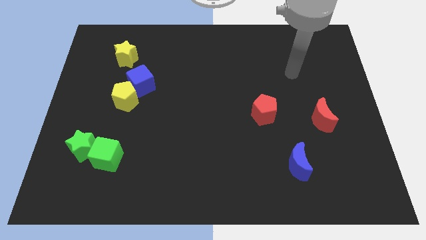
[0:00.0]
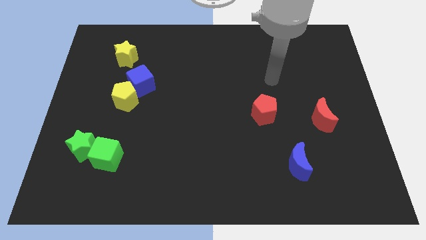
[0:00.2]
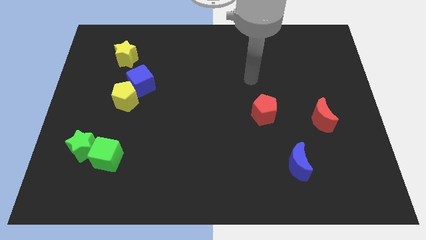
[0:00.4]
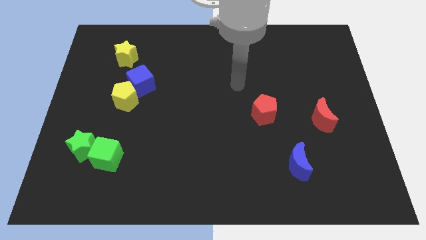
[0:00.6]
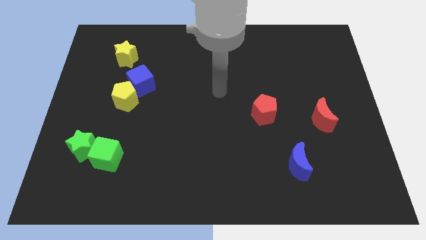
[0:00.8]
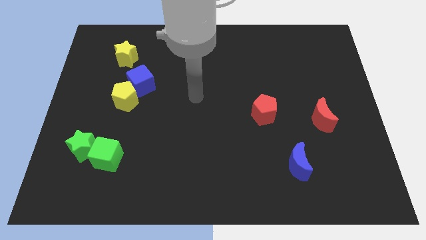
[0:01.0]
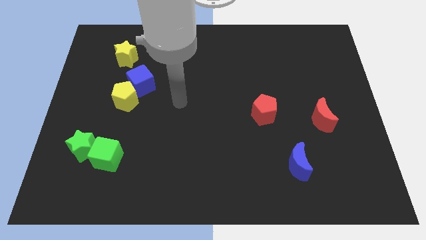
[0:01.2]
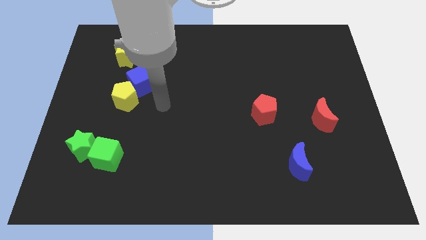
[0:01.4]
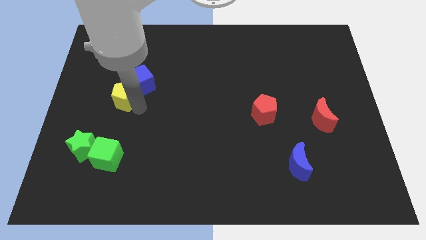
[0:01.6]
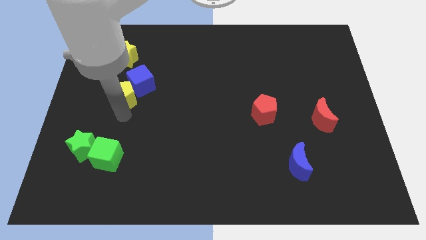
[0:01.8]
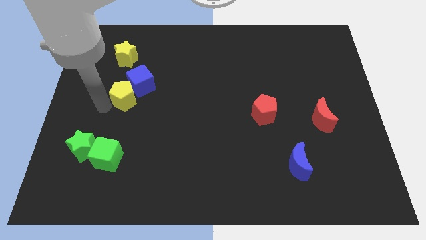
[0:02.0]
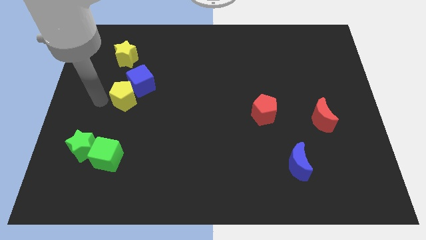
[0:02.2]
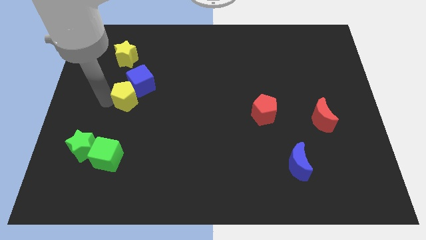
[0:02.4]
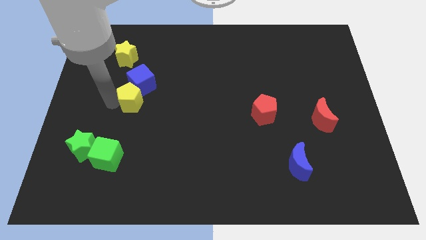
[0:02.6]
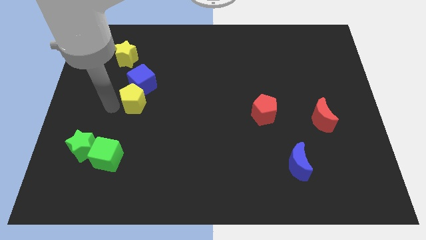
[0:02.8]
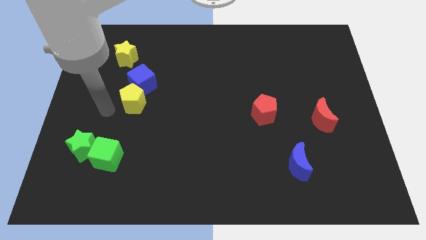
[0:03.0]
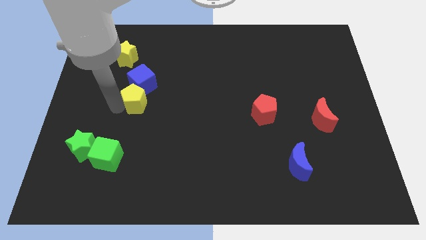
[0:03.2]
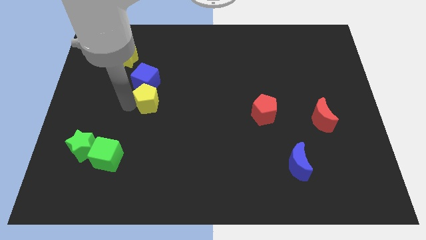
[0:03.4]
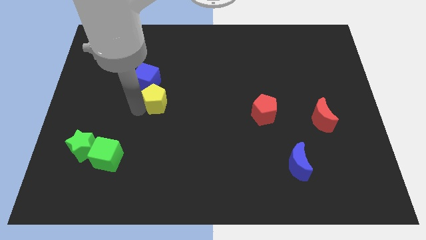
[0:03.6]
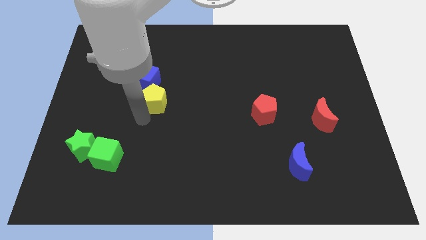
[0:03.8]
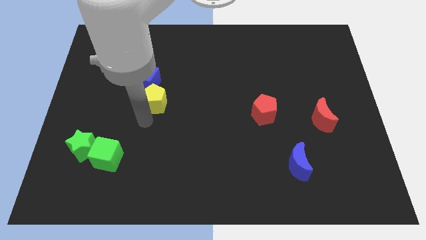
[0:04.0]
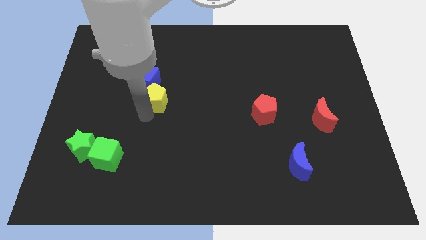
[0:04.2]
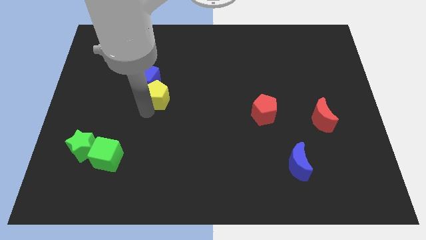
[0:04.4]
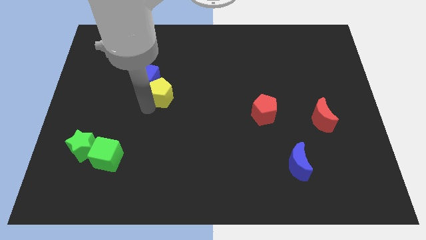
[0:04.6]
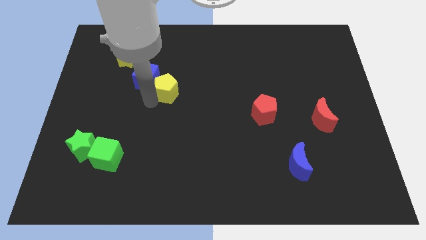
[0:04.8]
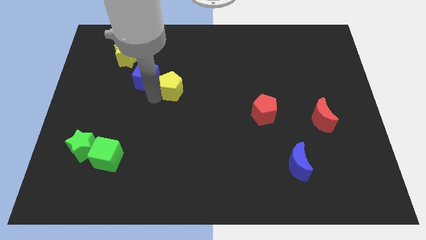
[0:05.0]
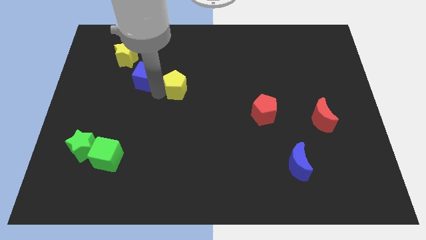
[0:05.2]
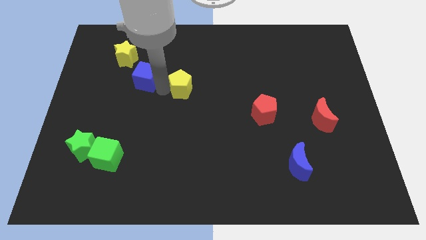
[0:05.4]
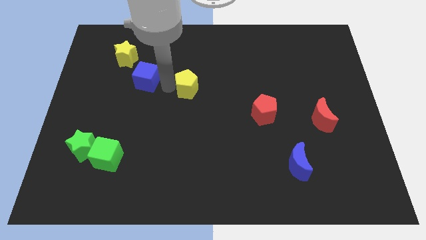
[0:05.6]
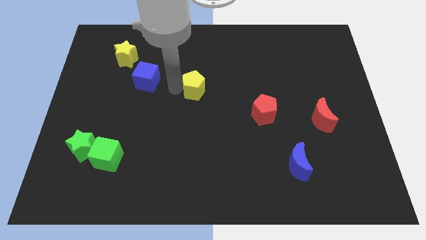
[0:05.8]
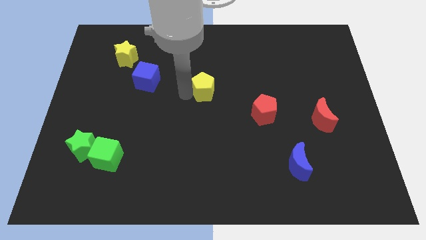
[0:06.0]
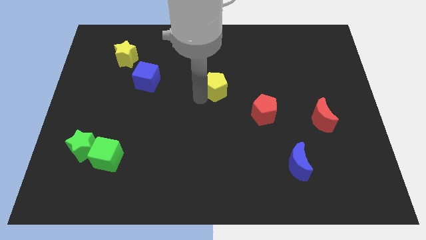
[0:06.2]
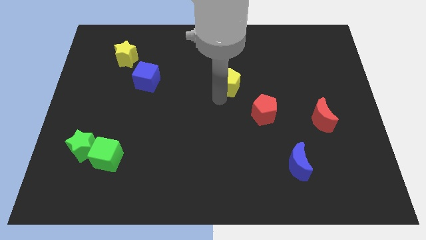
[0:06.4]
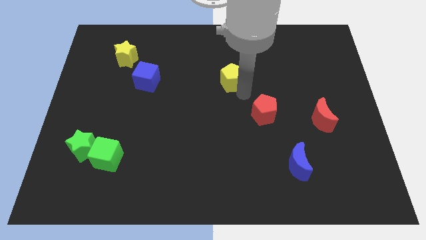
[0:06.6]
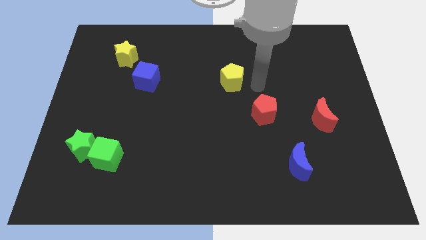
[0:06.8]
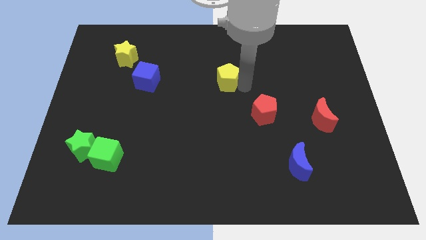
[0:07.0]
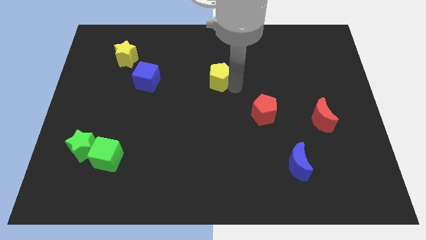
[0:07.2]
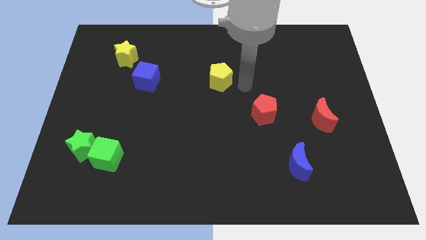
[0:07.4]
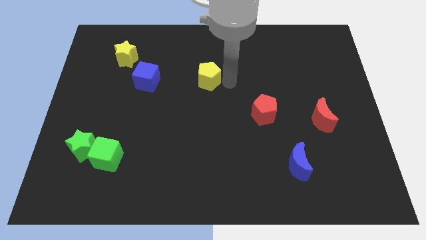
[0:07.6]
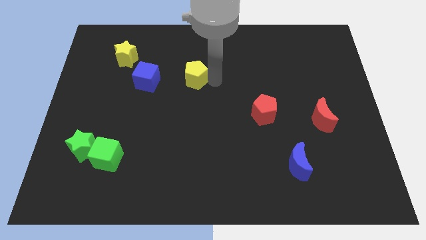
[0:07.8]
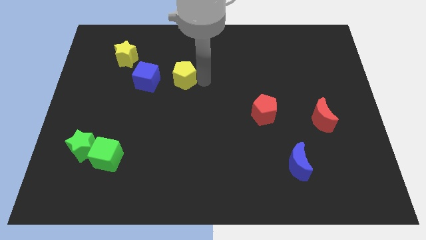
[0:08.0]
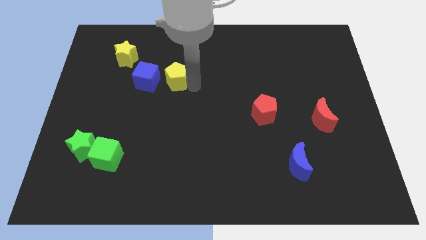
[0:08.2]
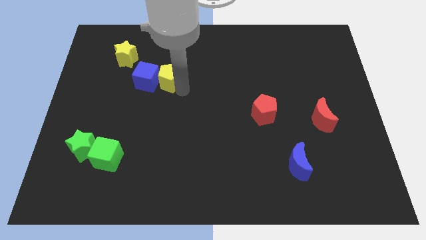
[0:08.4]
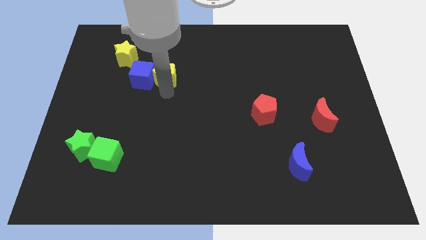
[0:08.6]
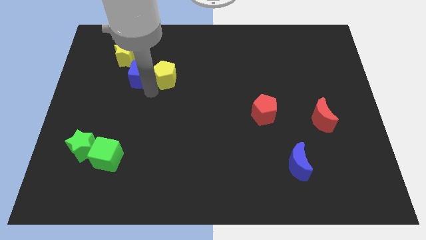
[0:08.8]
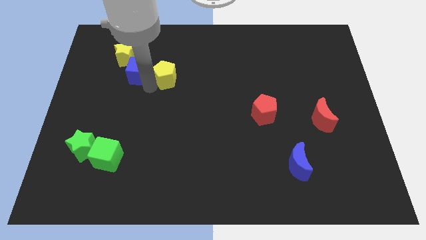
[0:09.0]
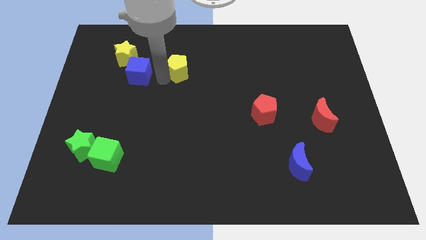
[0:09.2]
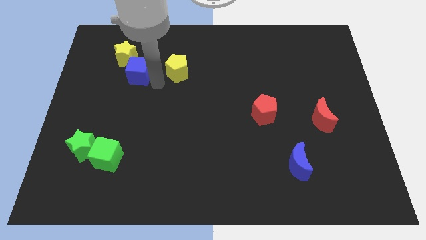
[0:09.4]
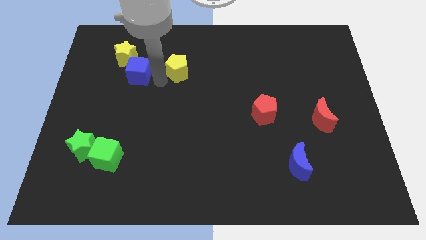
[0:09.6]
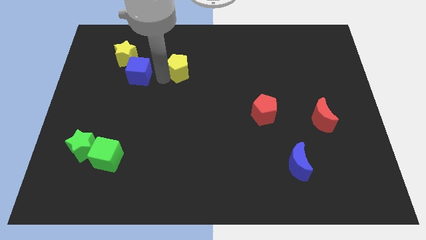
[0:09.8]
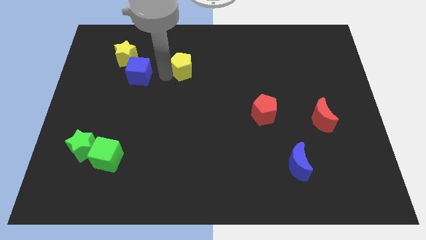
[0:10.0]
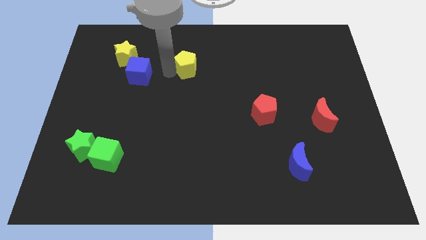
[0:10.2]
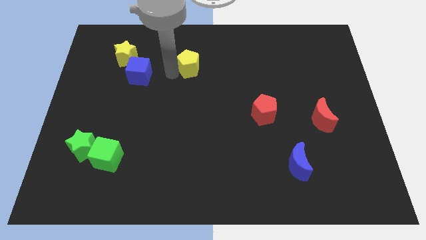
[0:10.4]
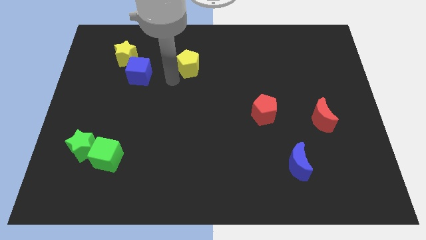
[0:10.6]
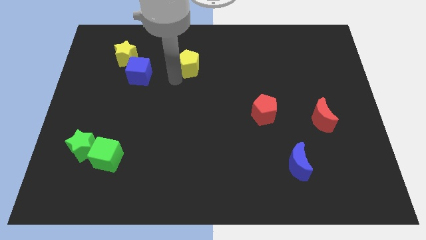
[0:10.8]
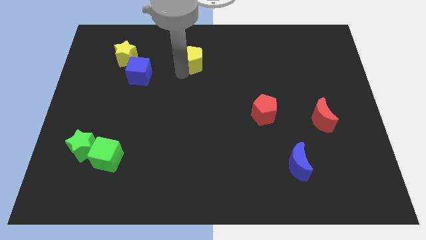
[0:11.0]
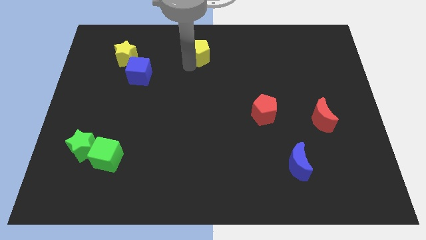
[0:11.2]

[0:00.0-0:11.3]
push the yellow pentagon to the top

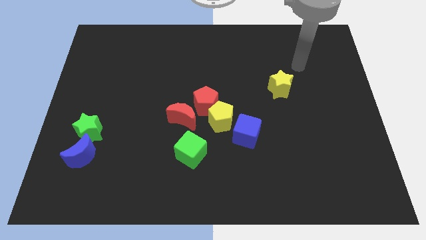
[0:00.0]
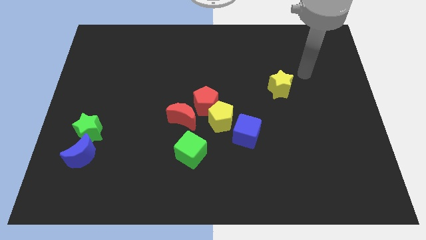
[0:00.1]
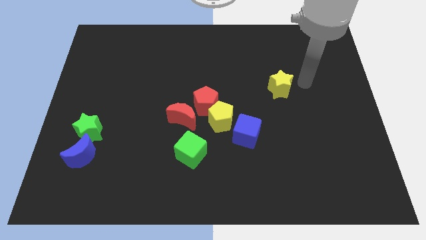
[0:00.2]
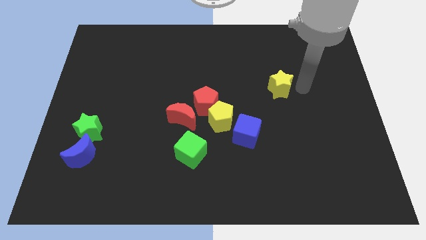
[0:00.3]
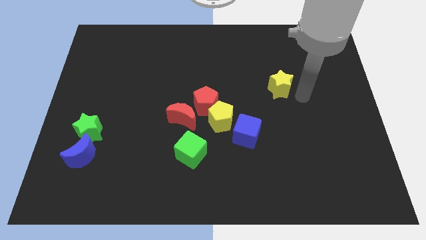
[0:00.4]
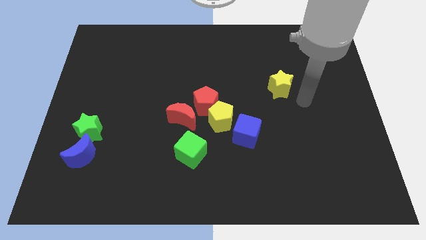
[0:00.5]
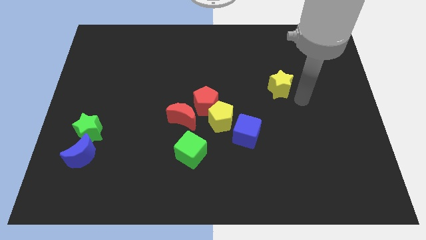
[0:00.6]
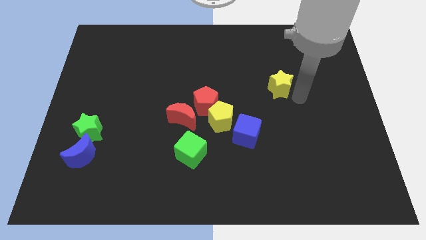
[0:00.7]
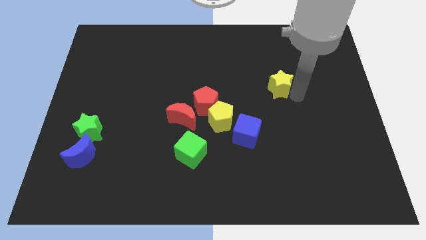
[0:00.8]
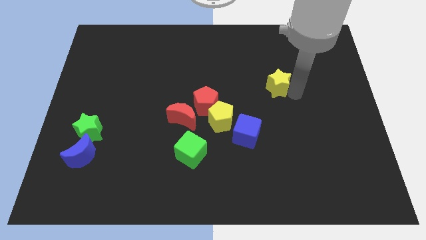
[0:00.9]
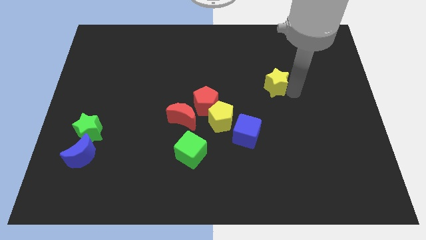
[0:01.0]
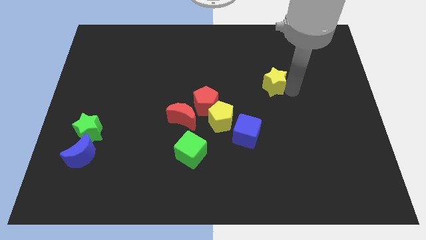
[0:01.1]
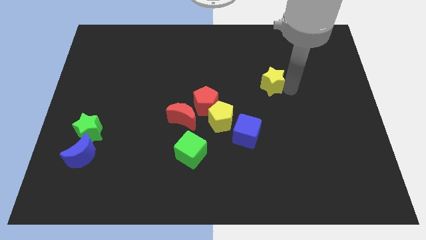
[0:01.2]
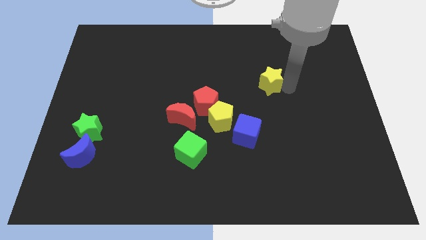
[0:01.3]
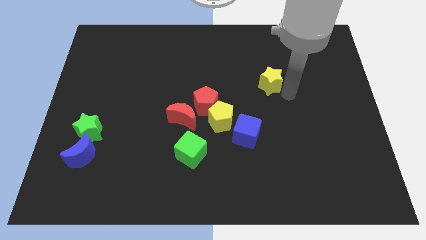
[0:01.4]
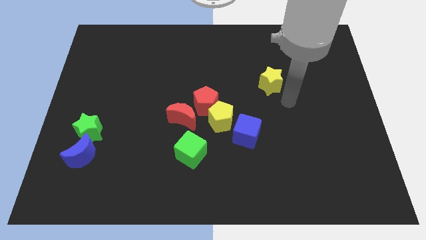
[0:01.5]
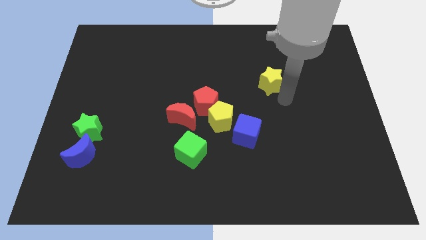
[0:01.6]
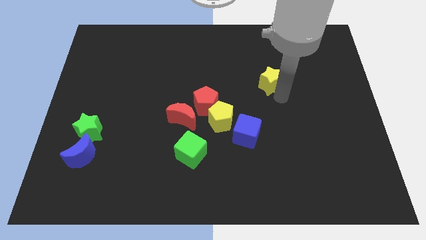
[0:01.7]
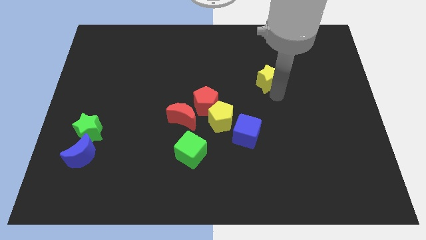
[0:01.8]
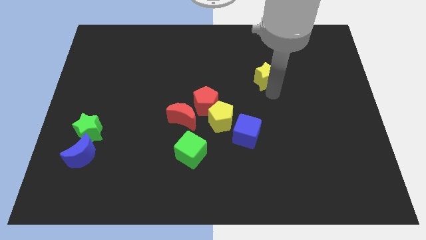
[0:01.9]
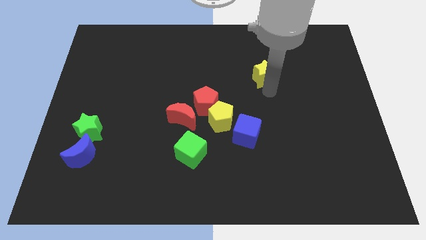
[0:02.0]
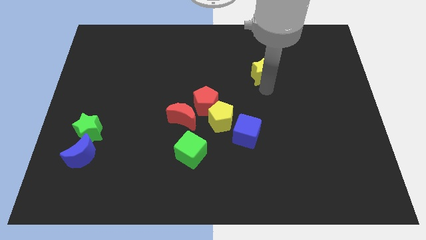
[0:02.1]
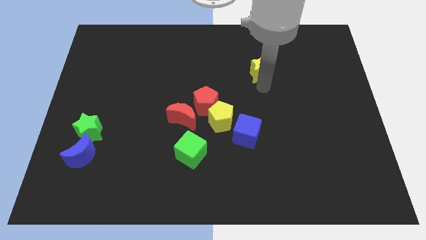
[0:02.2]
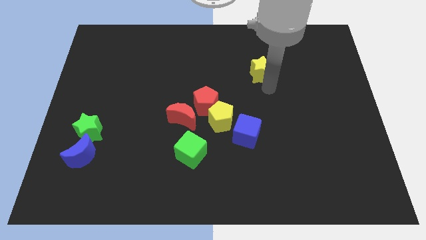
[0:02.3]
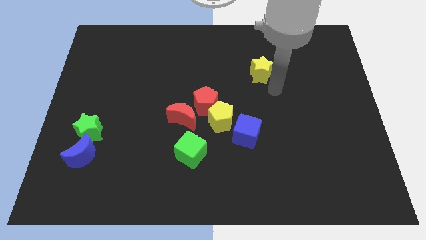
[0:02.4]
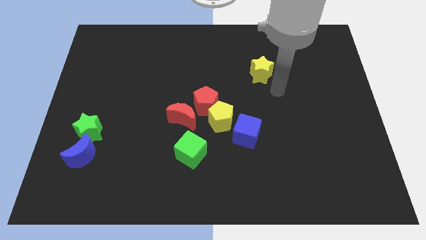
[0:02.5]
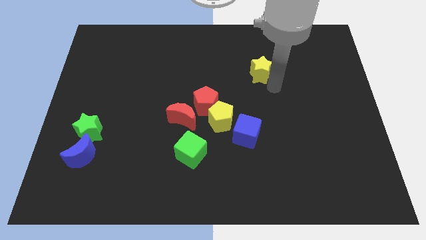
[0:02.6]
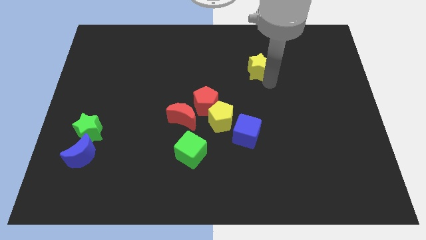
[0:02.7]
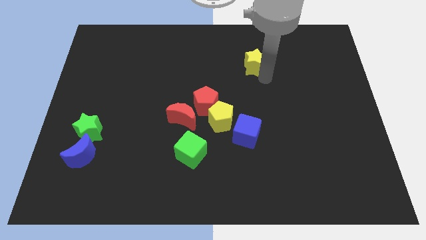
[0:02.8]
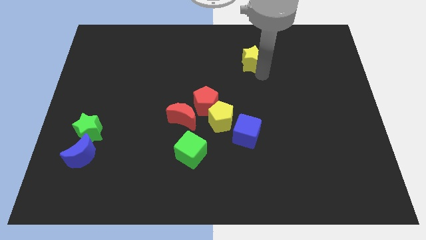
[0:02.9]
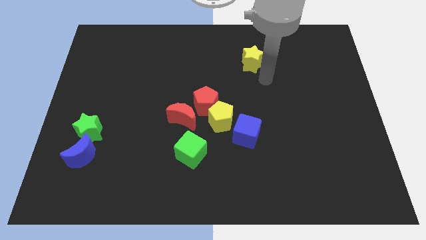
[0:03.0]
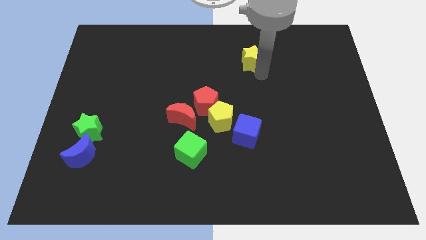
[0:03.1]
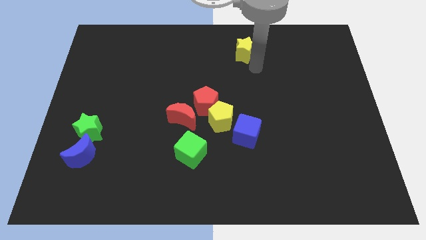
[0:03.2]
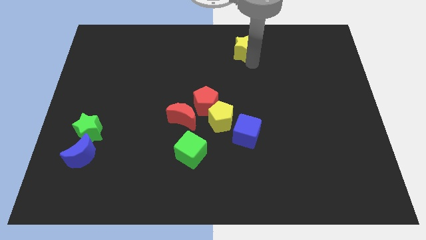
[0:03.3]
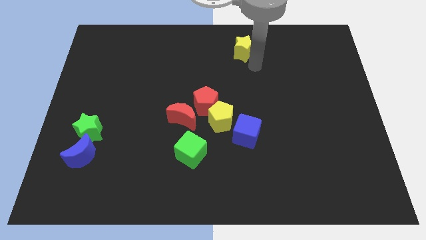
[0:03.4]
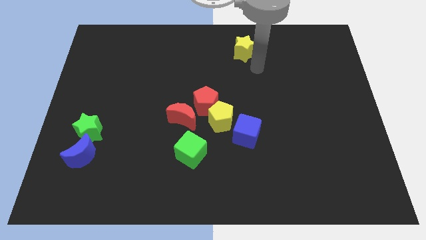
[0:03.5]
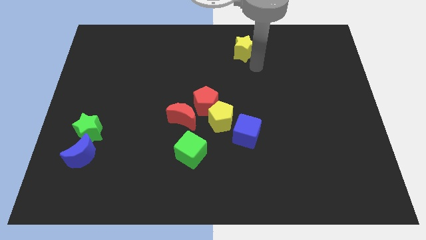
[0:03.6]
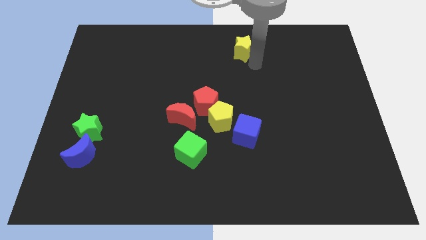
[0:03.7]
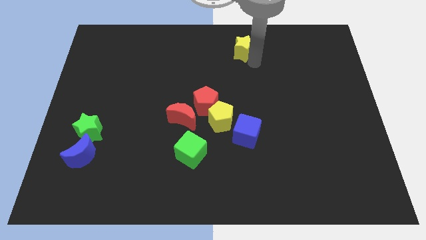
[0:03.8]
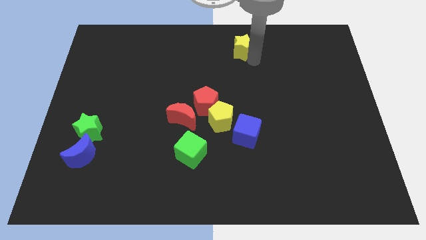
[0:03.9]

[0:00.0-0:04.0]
slide the yellow star to the towards your base
